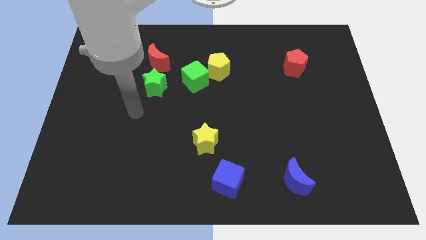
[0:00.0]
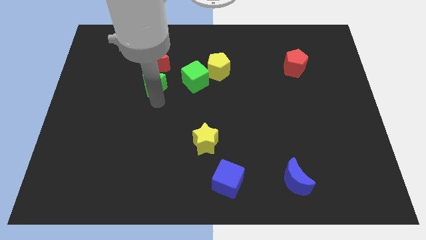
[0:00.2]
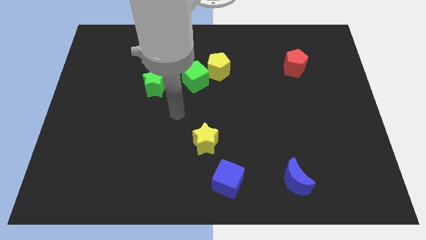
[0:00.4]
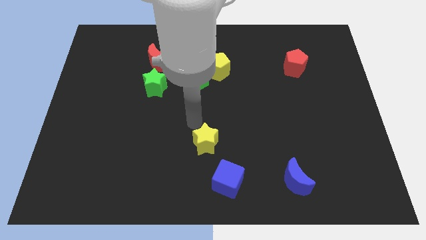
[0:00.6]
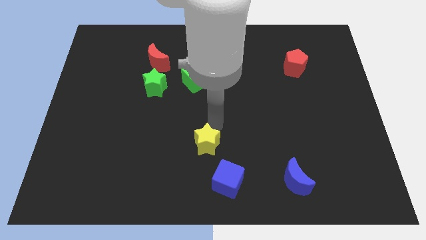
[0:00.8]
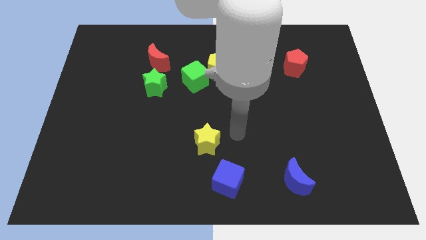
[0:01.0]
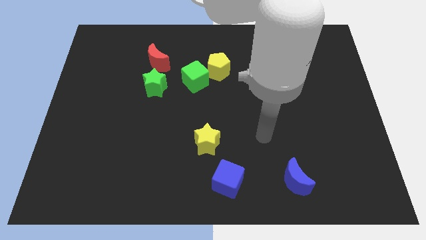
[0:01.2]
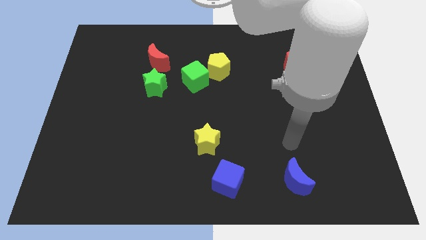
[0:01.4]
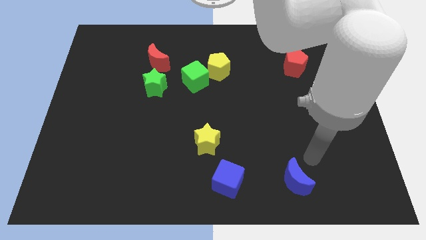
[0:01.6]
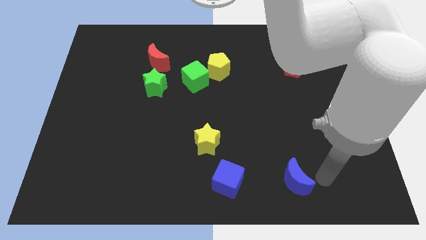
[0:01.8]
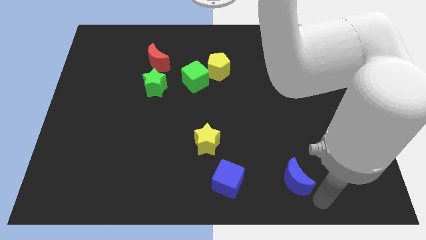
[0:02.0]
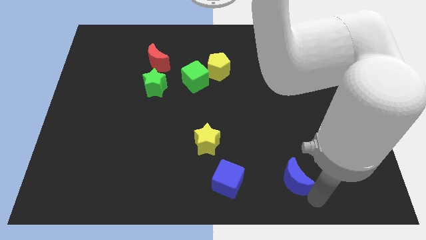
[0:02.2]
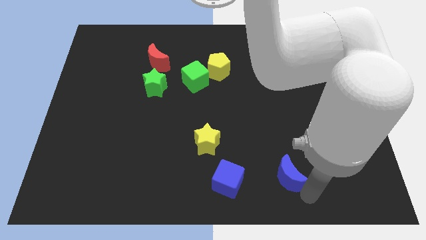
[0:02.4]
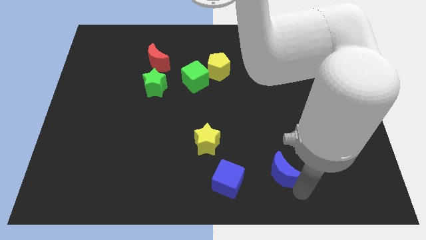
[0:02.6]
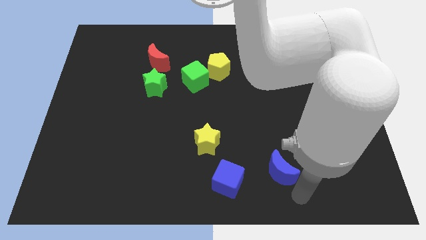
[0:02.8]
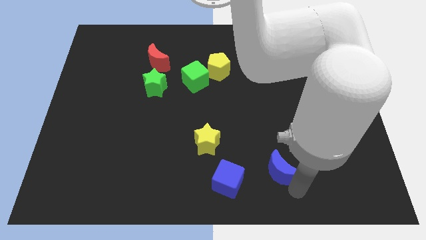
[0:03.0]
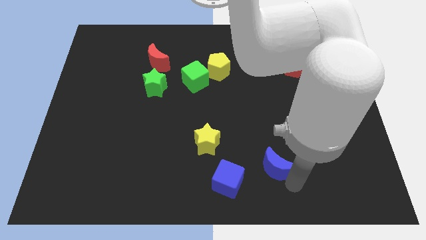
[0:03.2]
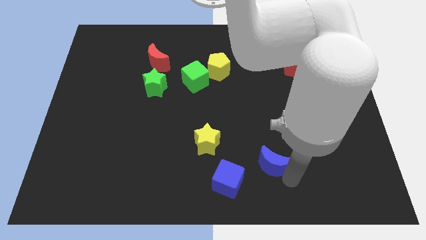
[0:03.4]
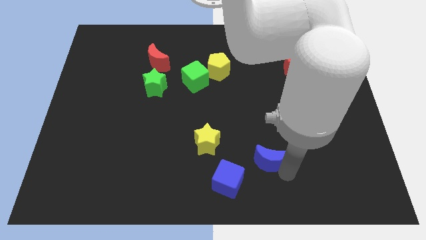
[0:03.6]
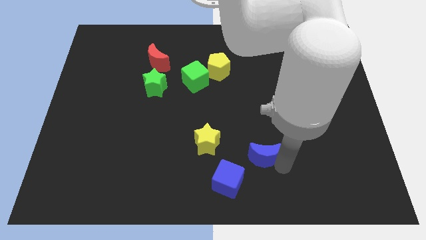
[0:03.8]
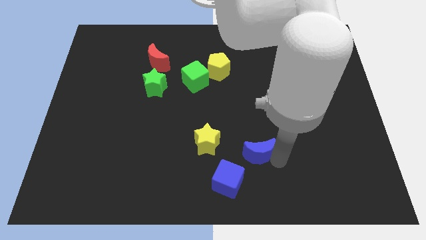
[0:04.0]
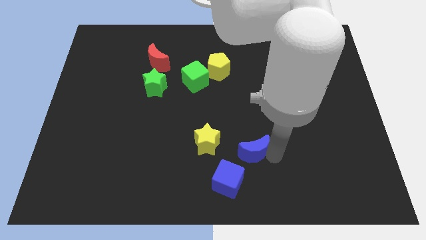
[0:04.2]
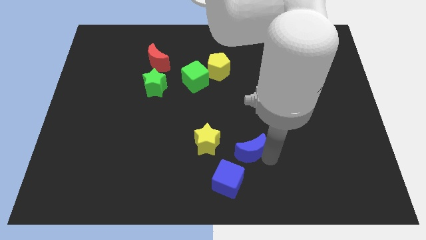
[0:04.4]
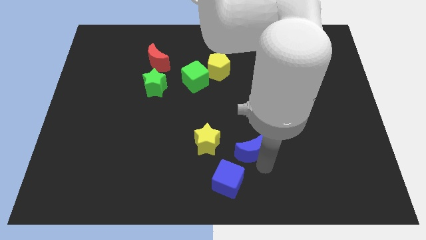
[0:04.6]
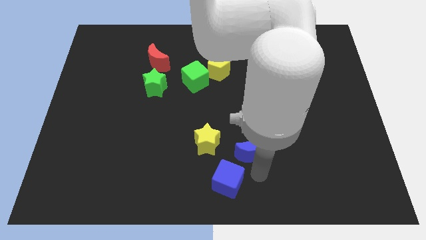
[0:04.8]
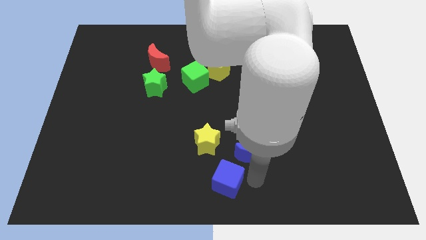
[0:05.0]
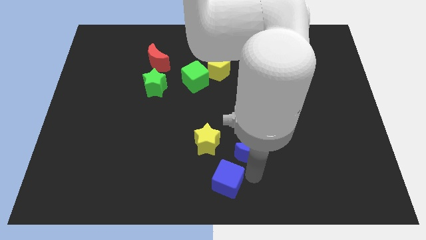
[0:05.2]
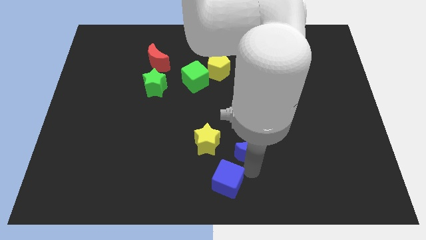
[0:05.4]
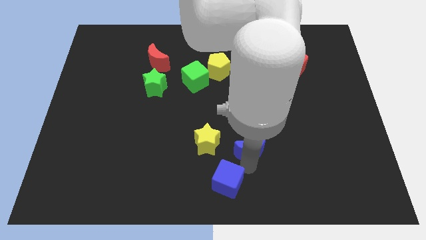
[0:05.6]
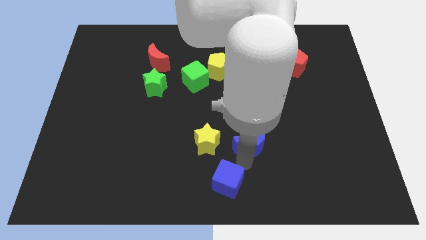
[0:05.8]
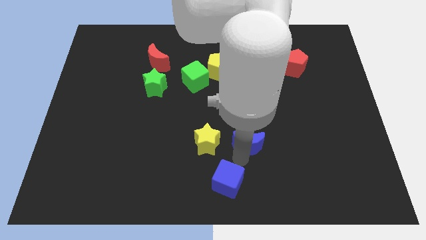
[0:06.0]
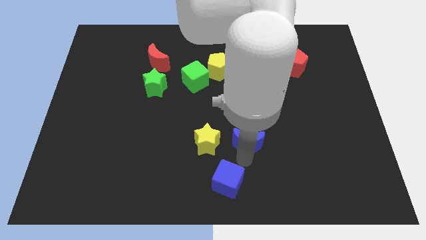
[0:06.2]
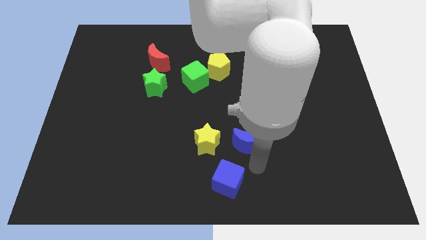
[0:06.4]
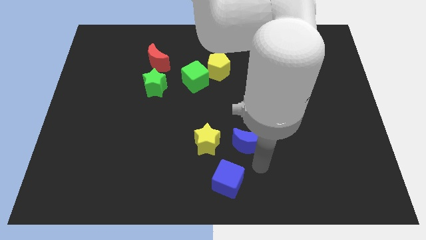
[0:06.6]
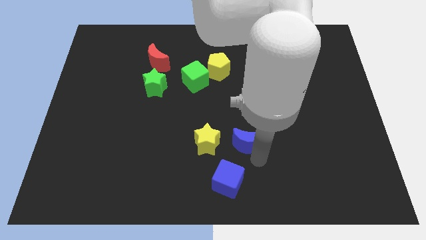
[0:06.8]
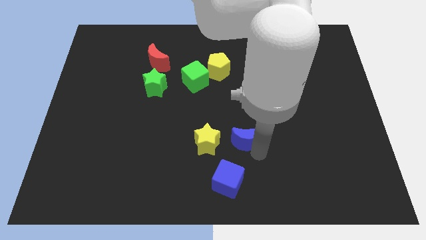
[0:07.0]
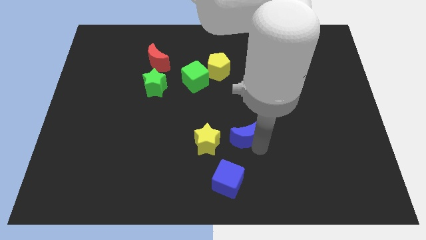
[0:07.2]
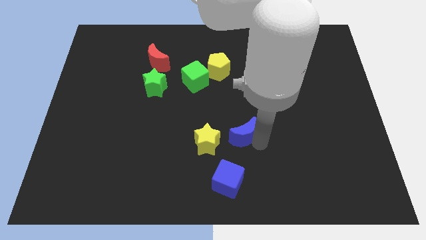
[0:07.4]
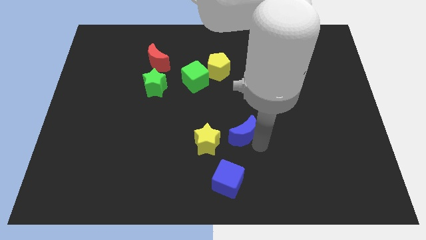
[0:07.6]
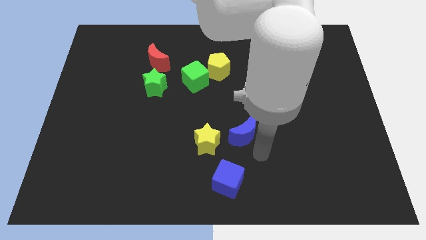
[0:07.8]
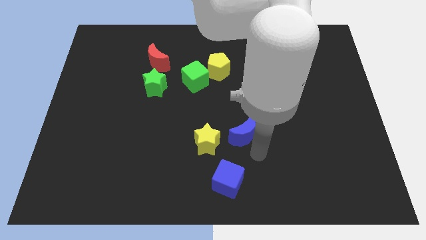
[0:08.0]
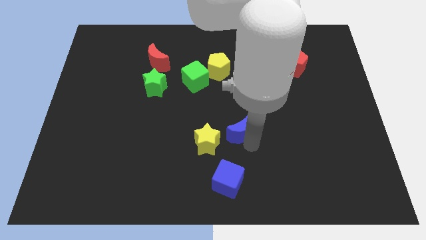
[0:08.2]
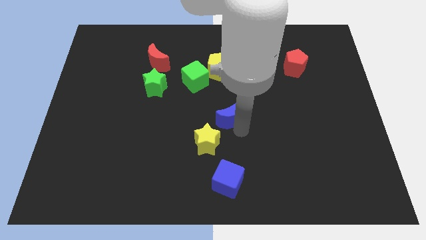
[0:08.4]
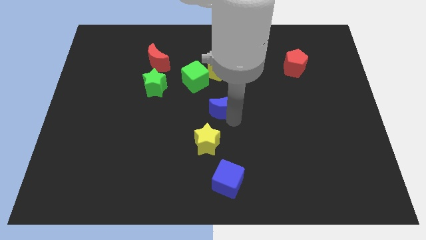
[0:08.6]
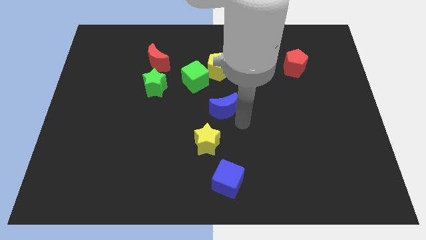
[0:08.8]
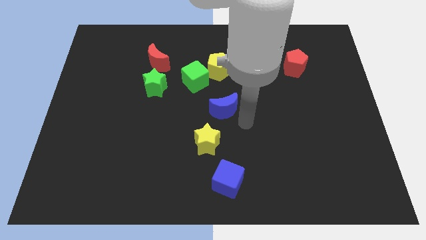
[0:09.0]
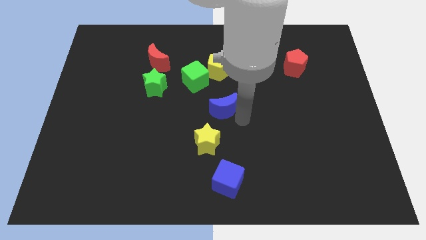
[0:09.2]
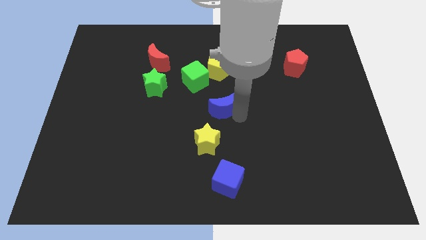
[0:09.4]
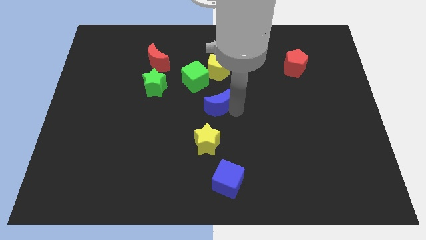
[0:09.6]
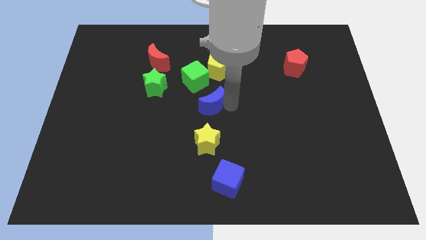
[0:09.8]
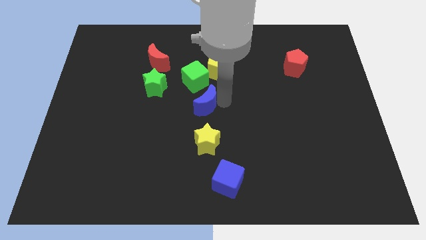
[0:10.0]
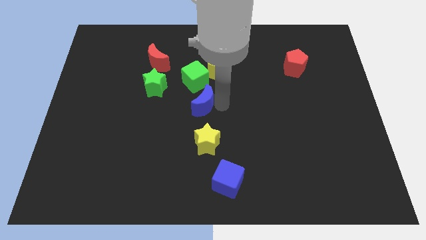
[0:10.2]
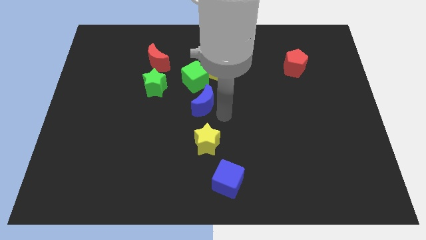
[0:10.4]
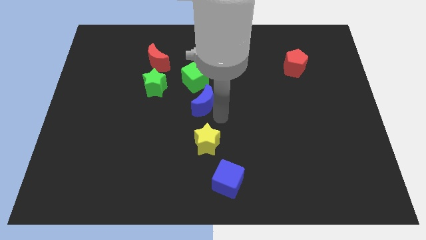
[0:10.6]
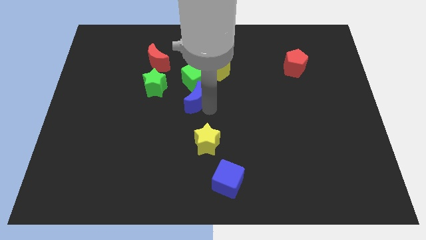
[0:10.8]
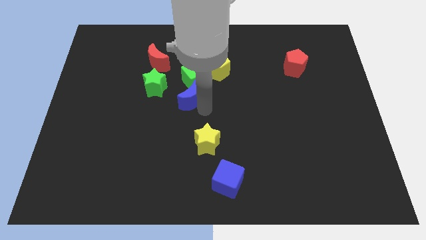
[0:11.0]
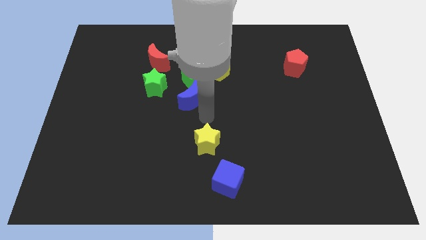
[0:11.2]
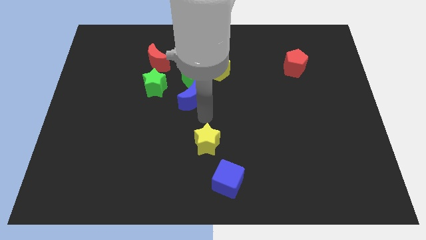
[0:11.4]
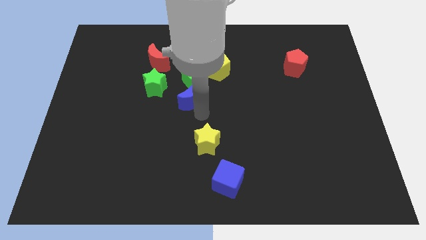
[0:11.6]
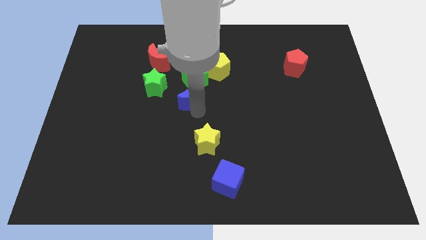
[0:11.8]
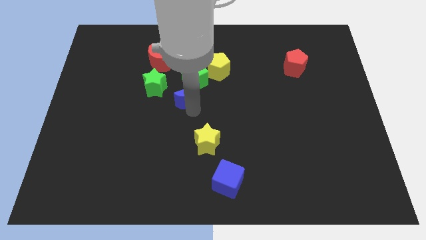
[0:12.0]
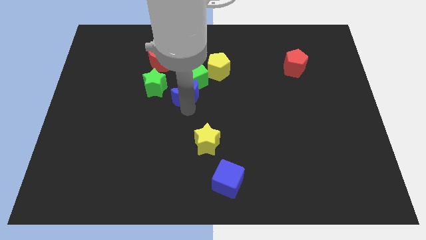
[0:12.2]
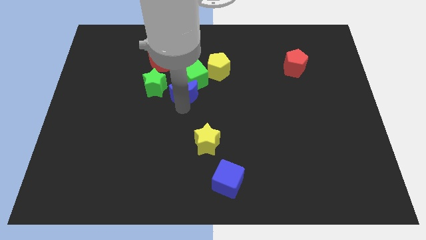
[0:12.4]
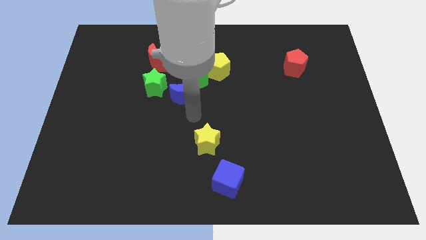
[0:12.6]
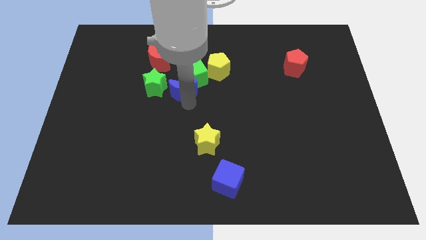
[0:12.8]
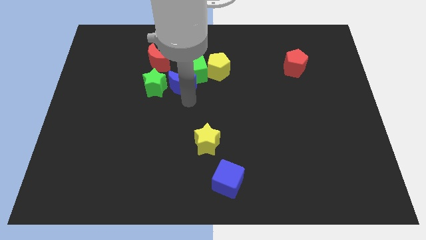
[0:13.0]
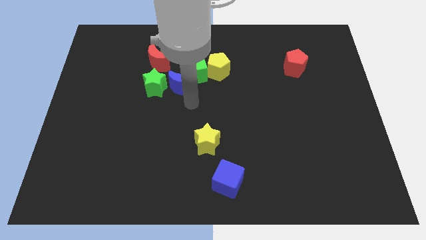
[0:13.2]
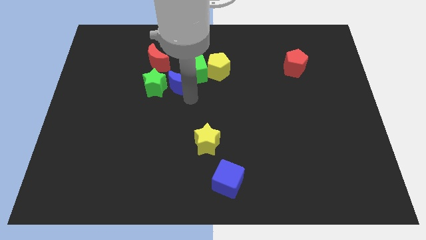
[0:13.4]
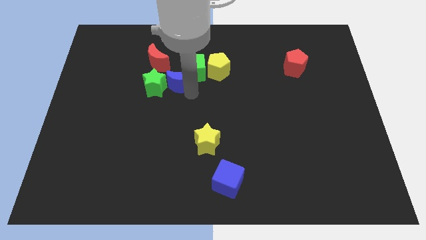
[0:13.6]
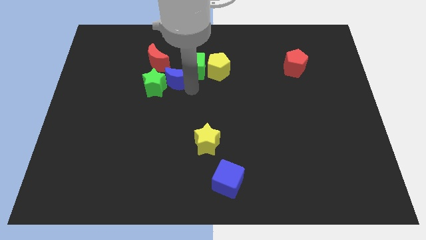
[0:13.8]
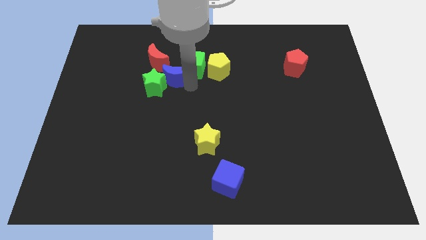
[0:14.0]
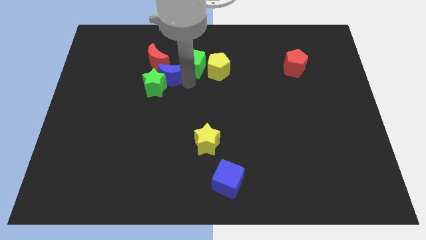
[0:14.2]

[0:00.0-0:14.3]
put the blue moon above the green star

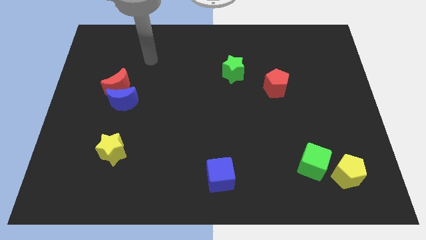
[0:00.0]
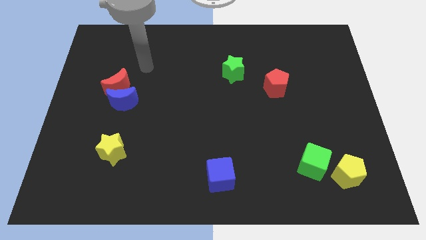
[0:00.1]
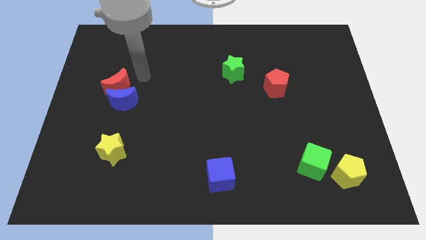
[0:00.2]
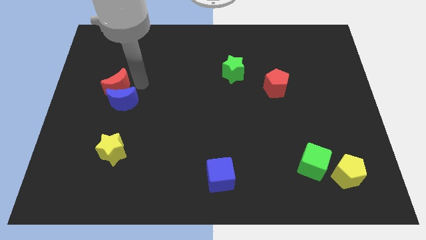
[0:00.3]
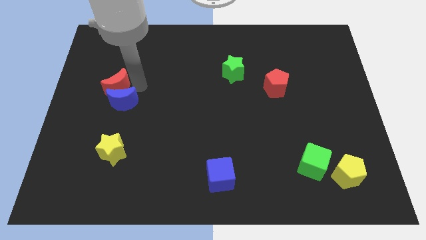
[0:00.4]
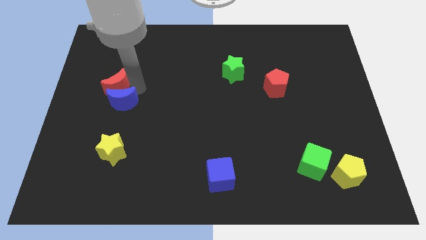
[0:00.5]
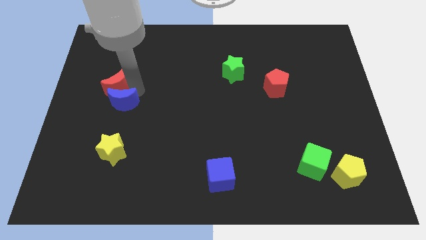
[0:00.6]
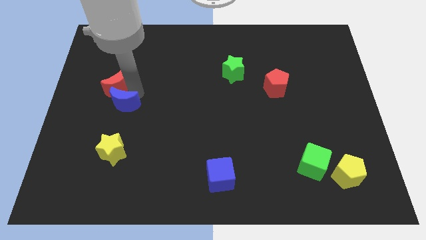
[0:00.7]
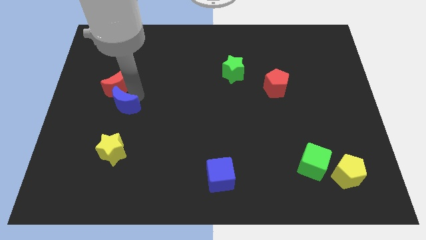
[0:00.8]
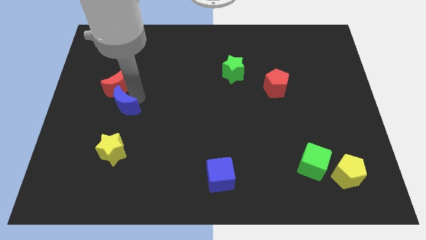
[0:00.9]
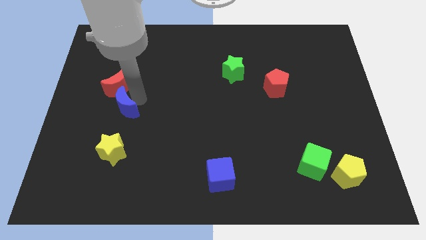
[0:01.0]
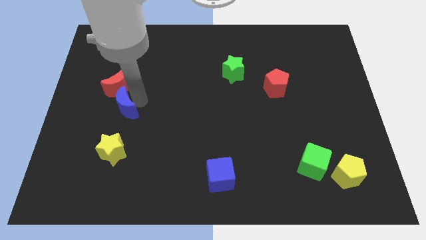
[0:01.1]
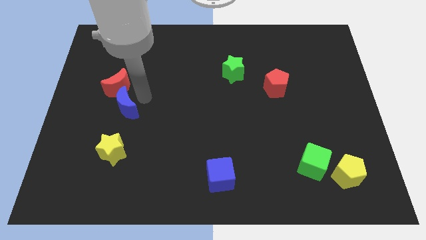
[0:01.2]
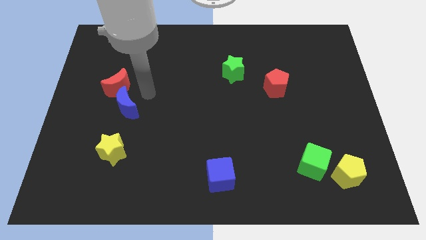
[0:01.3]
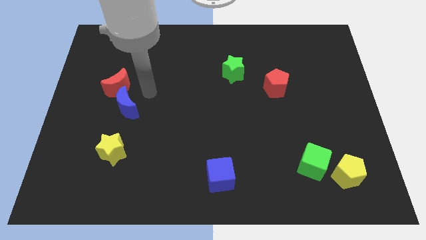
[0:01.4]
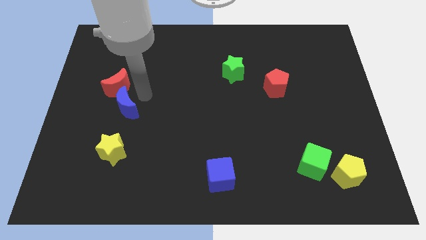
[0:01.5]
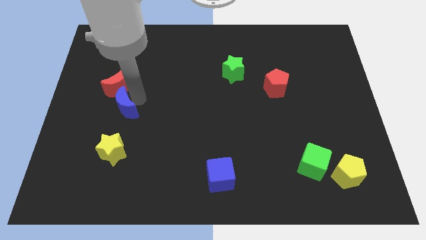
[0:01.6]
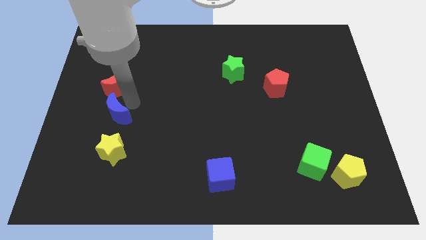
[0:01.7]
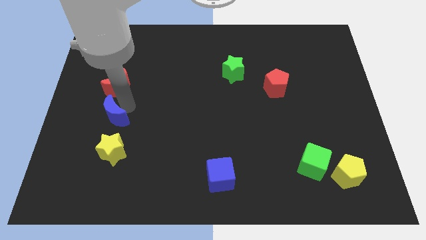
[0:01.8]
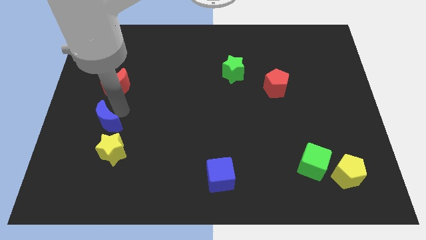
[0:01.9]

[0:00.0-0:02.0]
put the blue moon diagonally up and to the left of the yellow star
